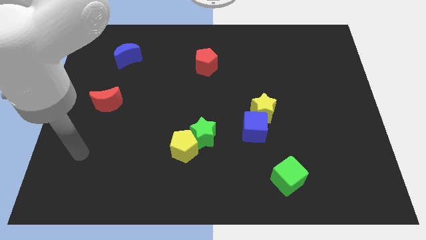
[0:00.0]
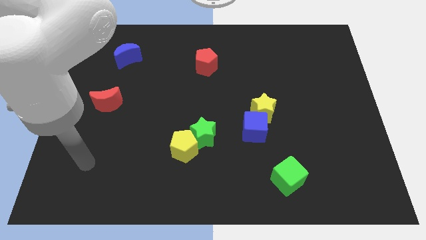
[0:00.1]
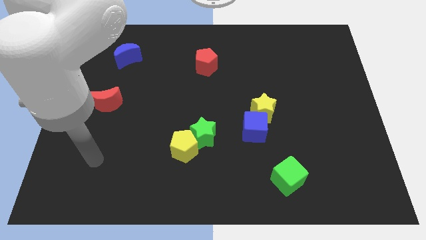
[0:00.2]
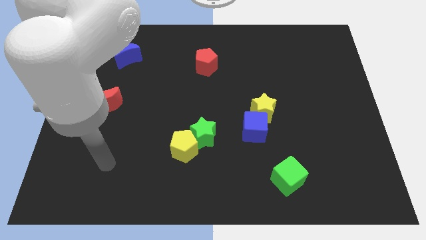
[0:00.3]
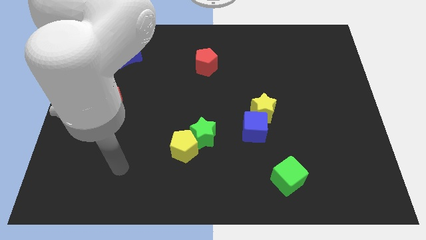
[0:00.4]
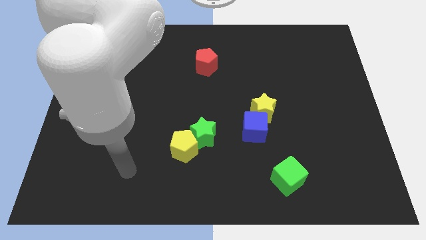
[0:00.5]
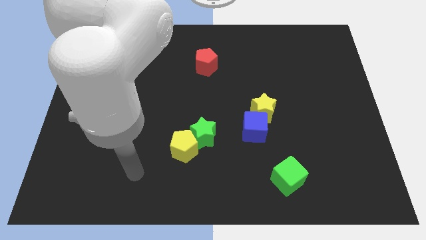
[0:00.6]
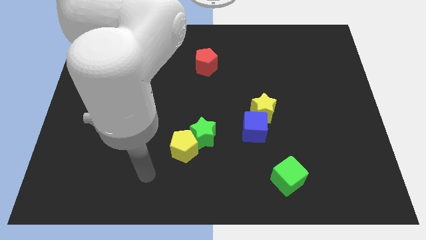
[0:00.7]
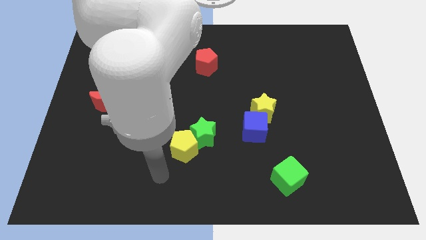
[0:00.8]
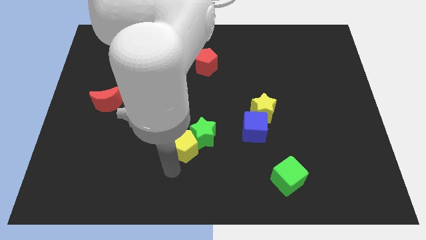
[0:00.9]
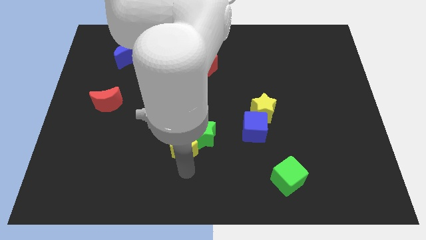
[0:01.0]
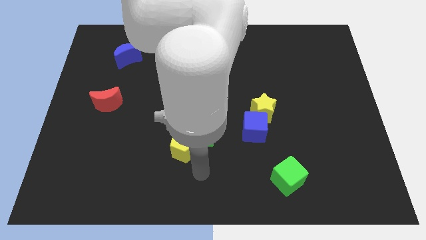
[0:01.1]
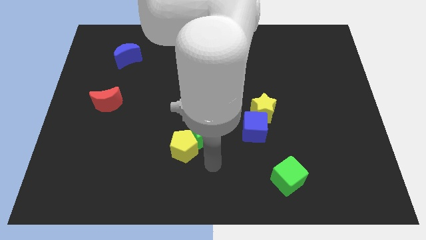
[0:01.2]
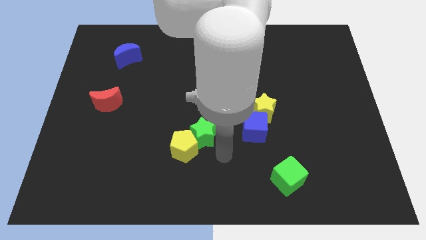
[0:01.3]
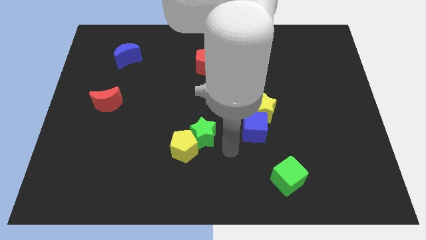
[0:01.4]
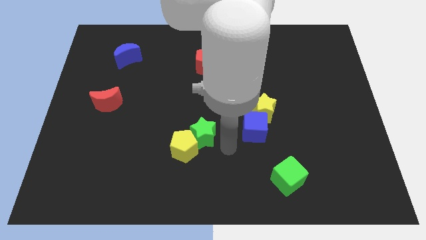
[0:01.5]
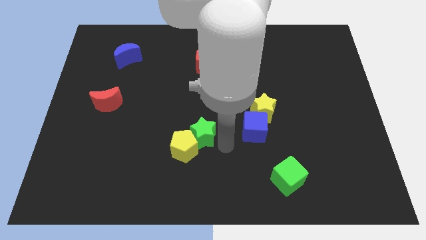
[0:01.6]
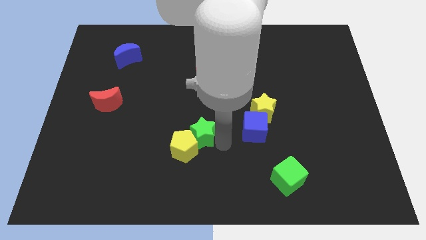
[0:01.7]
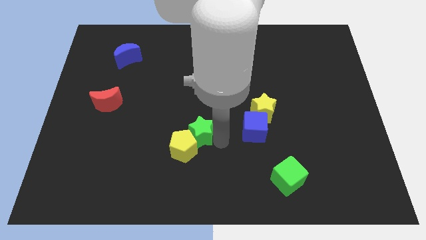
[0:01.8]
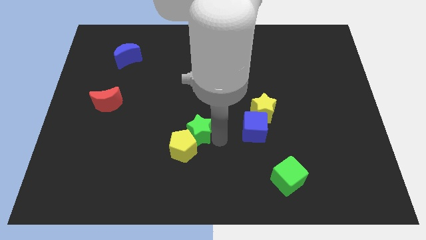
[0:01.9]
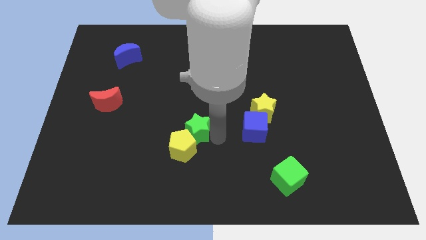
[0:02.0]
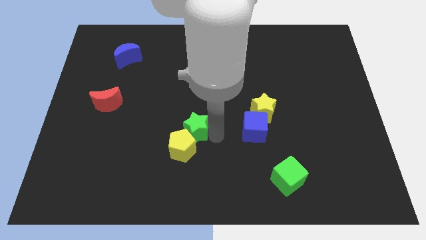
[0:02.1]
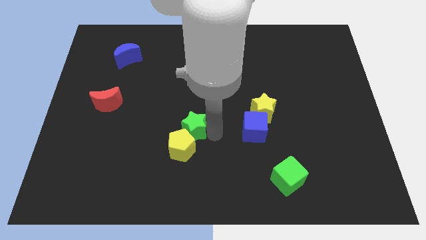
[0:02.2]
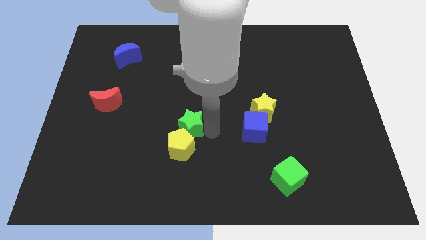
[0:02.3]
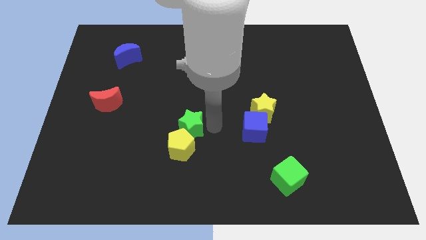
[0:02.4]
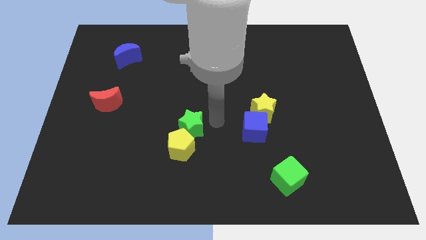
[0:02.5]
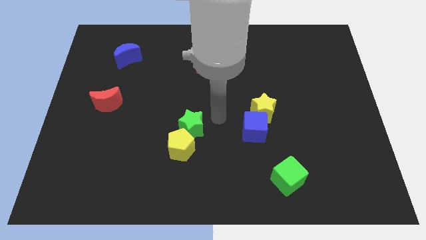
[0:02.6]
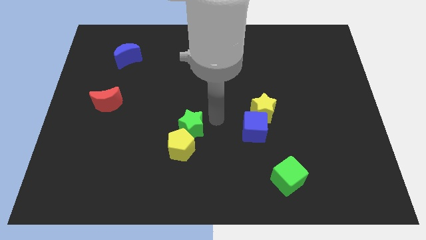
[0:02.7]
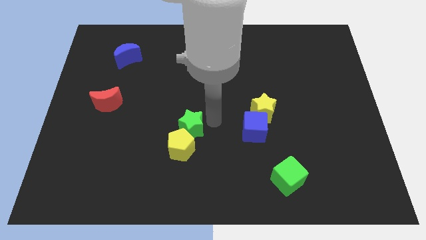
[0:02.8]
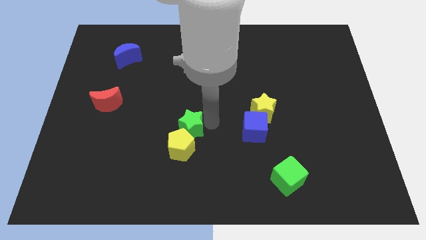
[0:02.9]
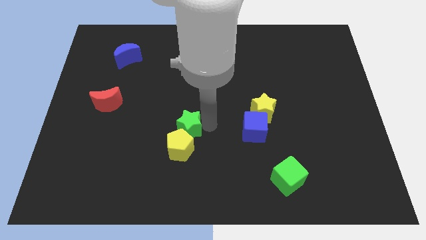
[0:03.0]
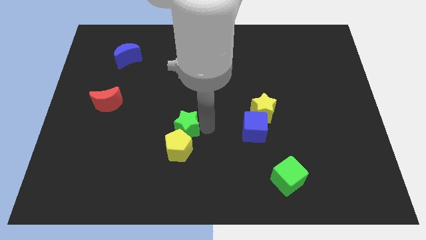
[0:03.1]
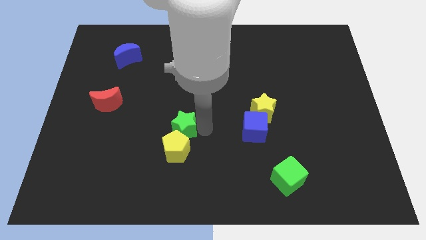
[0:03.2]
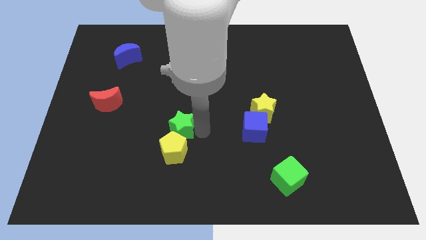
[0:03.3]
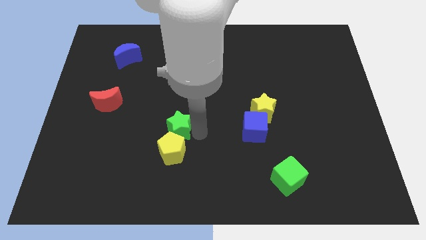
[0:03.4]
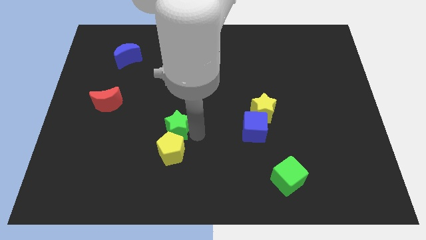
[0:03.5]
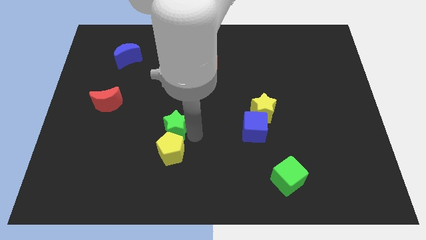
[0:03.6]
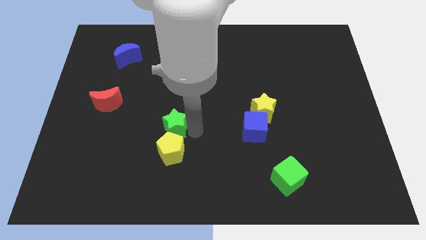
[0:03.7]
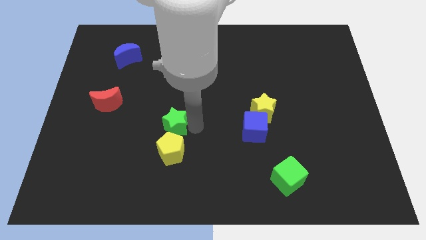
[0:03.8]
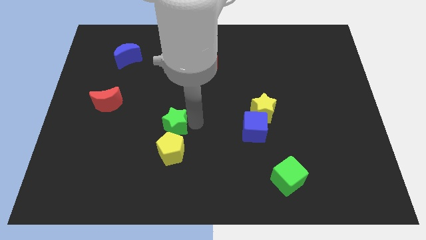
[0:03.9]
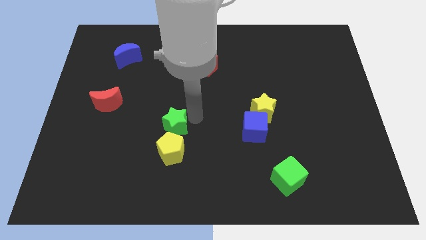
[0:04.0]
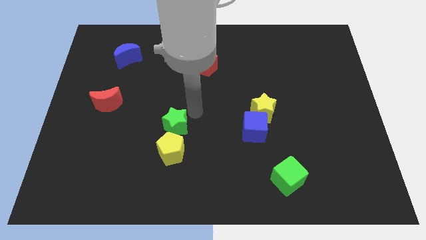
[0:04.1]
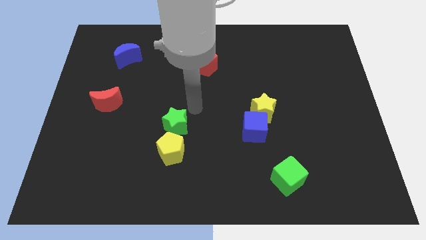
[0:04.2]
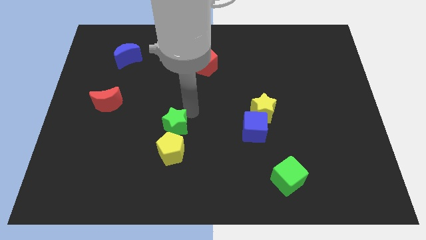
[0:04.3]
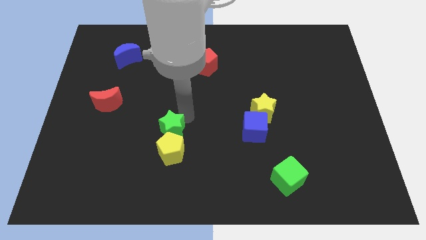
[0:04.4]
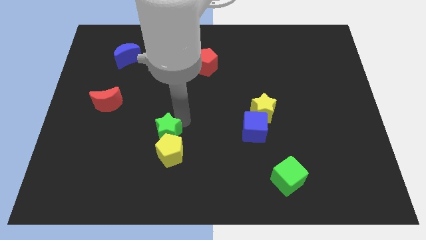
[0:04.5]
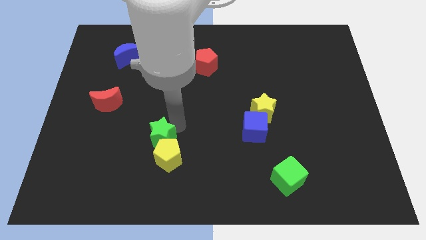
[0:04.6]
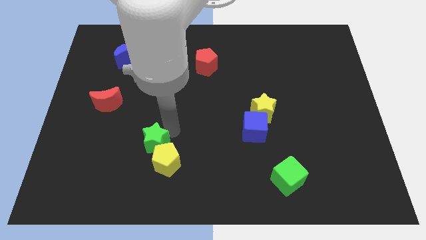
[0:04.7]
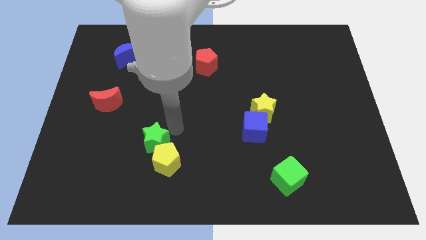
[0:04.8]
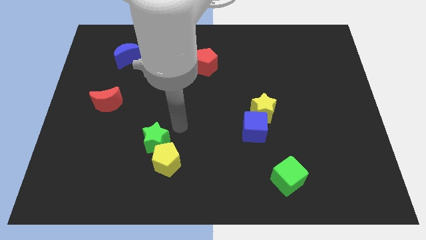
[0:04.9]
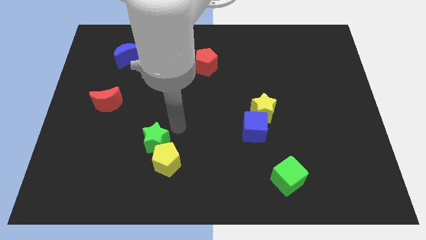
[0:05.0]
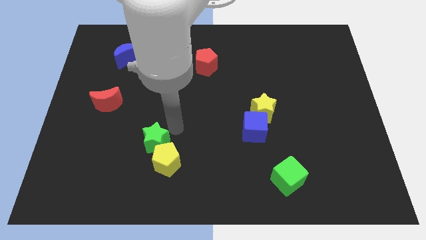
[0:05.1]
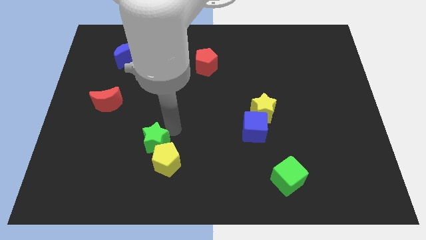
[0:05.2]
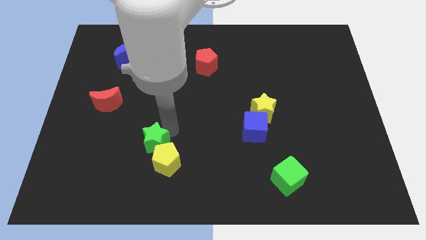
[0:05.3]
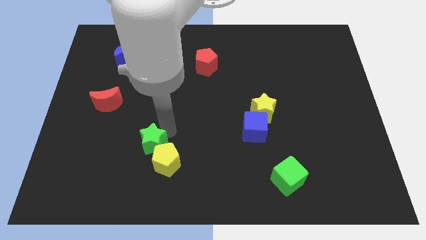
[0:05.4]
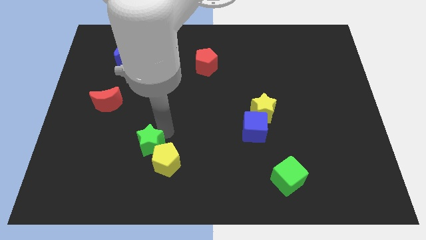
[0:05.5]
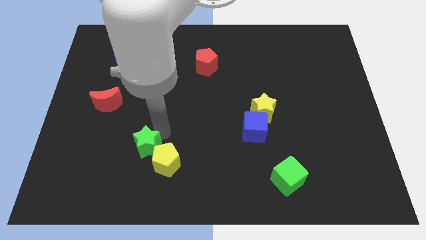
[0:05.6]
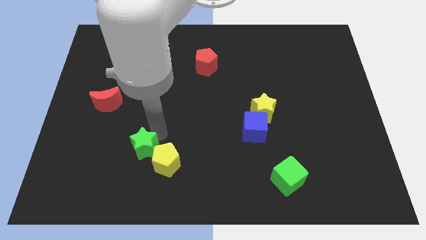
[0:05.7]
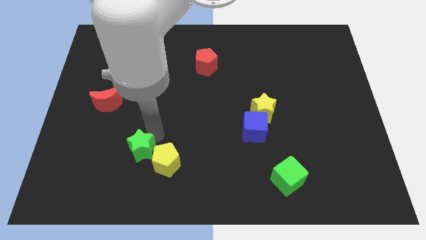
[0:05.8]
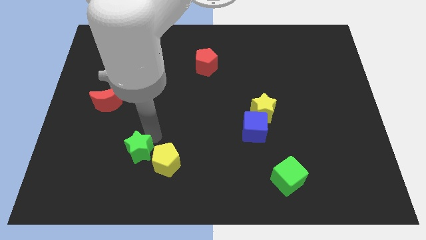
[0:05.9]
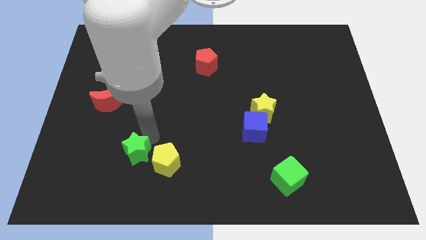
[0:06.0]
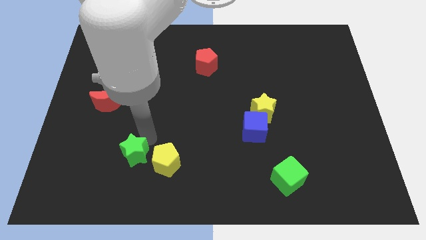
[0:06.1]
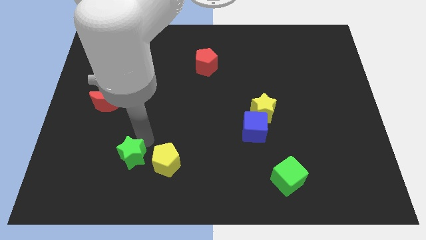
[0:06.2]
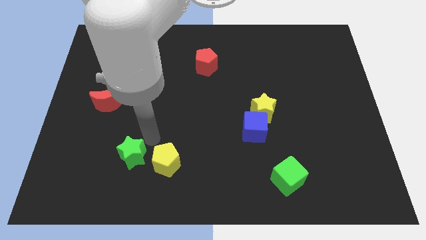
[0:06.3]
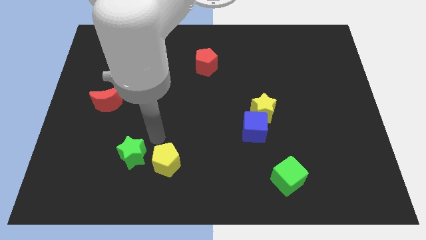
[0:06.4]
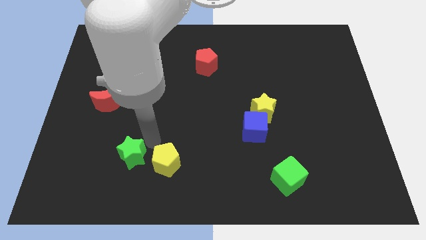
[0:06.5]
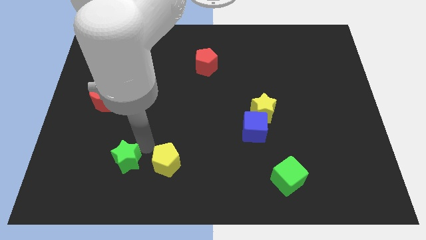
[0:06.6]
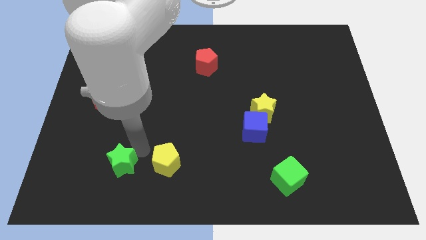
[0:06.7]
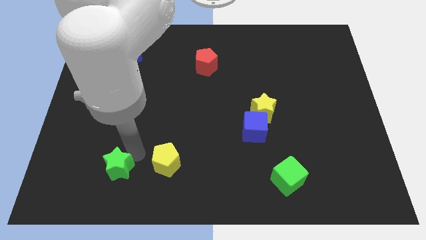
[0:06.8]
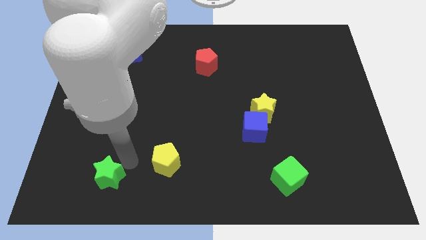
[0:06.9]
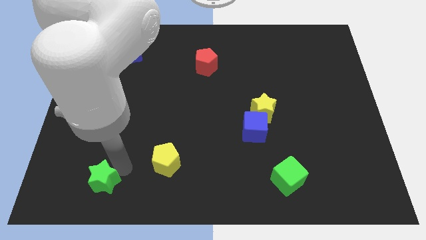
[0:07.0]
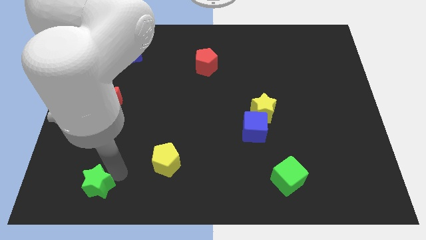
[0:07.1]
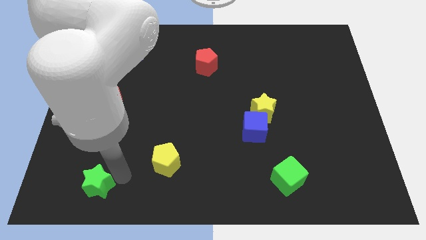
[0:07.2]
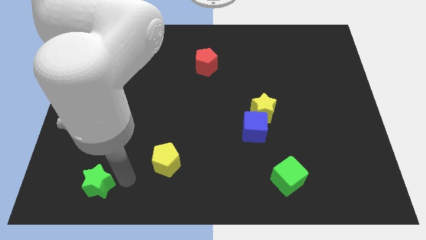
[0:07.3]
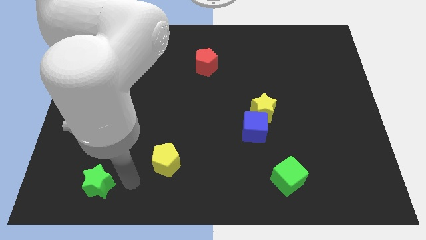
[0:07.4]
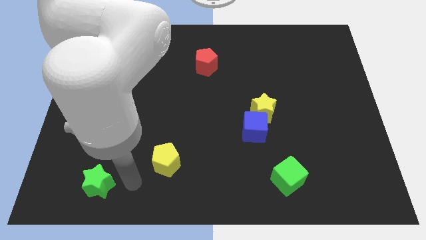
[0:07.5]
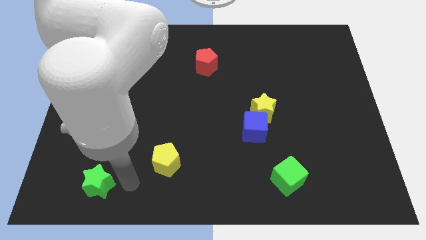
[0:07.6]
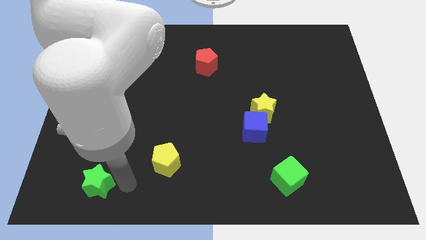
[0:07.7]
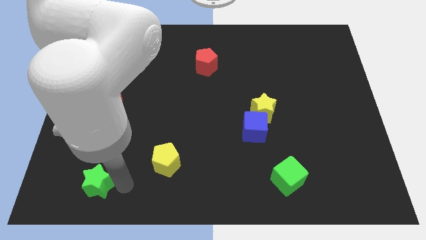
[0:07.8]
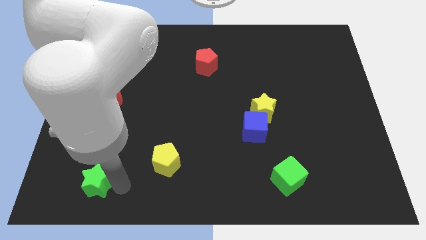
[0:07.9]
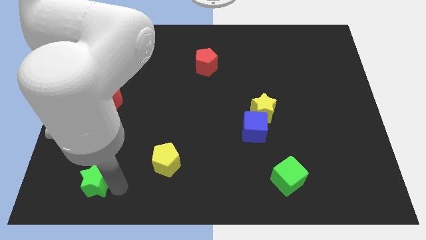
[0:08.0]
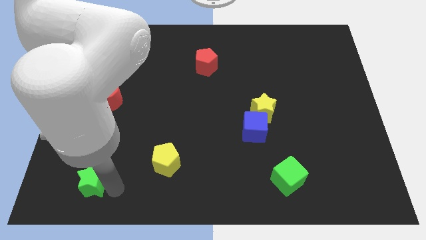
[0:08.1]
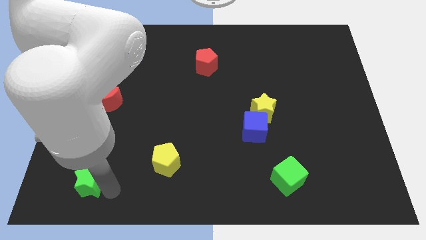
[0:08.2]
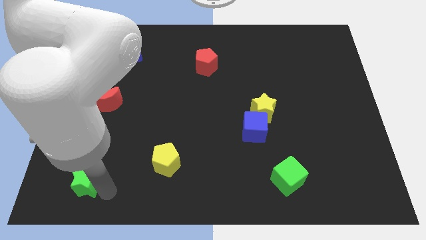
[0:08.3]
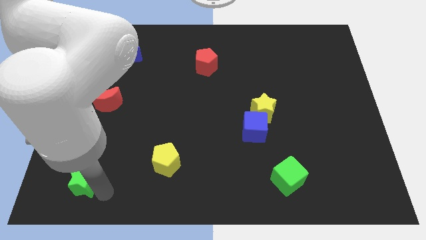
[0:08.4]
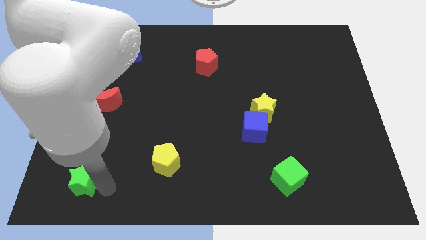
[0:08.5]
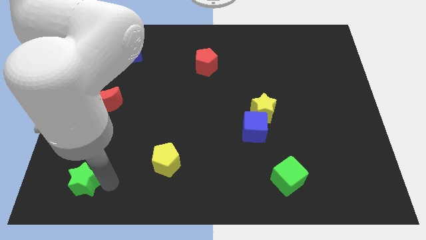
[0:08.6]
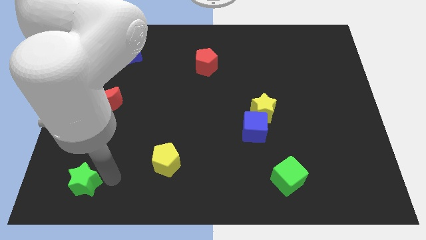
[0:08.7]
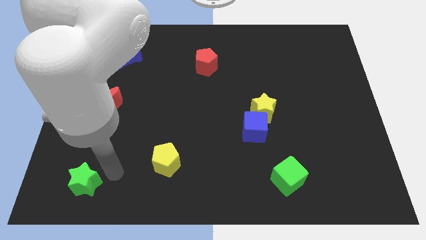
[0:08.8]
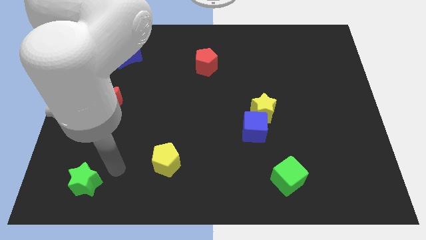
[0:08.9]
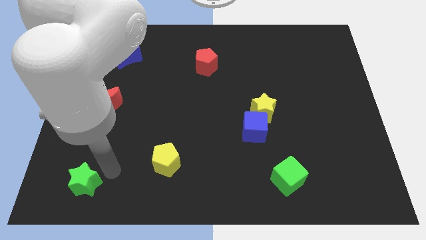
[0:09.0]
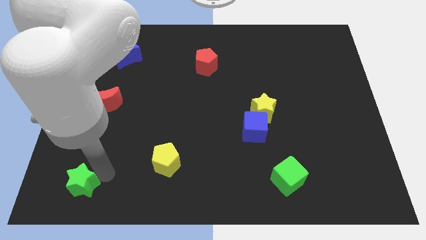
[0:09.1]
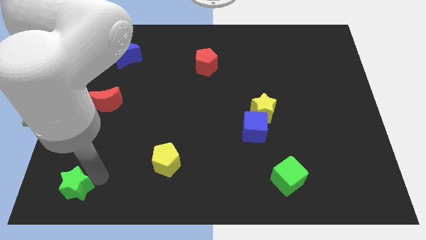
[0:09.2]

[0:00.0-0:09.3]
put the green star to the bottom left of the board
